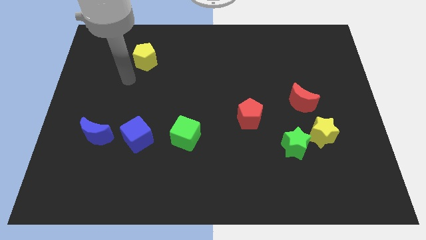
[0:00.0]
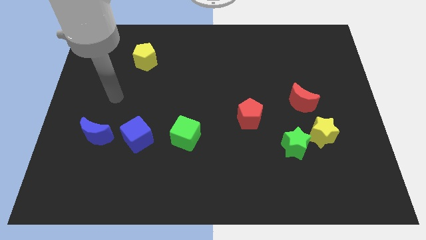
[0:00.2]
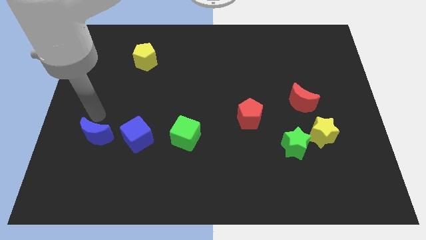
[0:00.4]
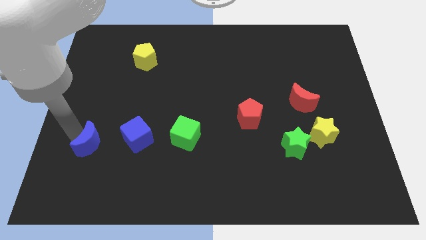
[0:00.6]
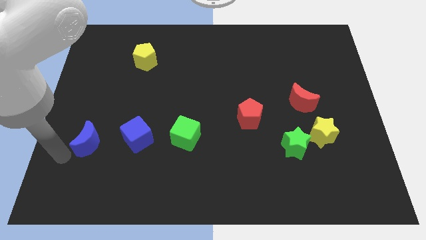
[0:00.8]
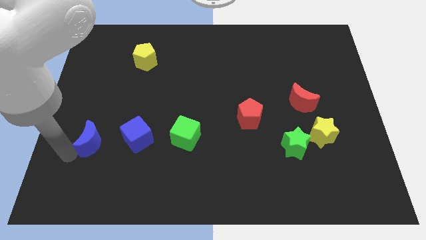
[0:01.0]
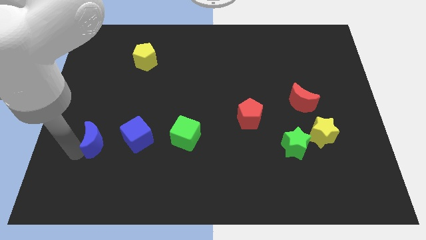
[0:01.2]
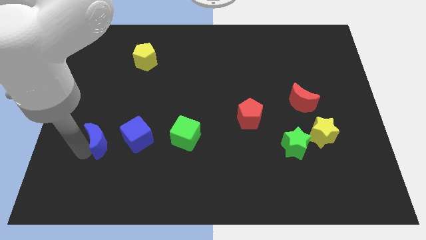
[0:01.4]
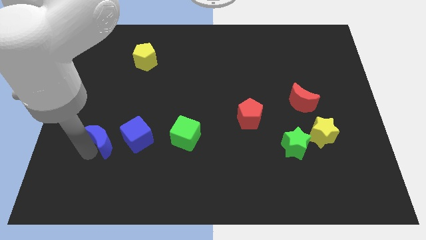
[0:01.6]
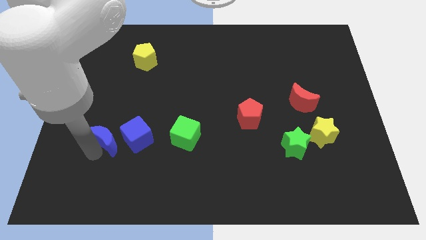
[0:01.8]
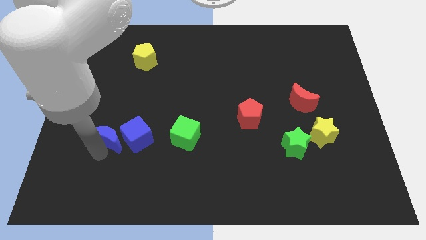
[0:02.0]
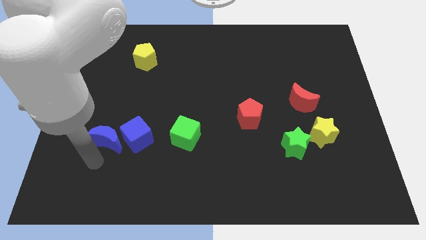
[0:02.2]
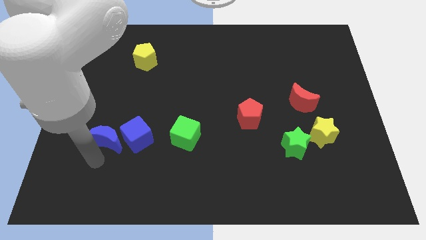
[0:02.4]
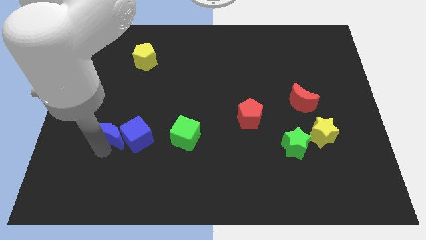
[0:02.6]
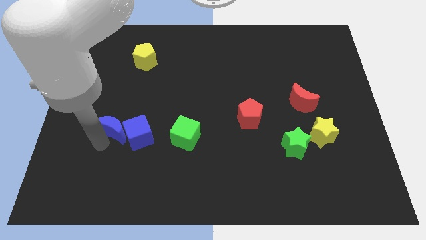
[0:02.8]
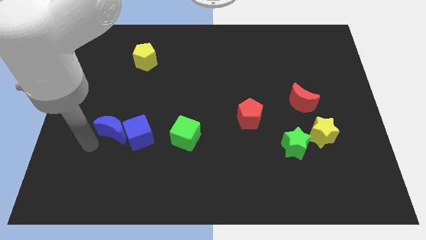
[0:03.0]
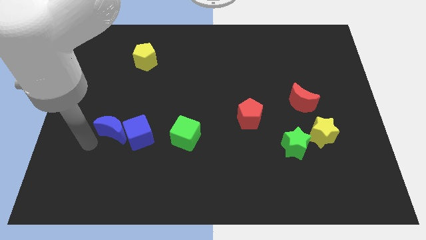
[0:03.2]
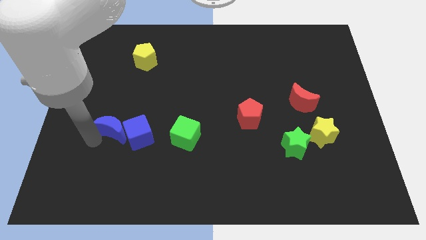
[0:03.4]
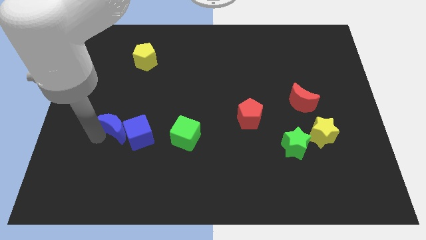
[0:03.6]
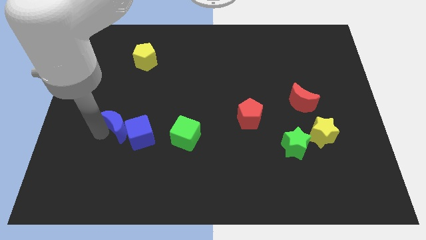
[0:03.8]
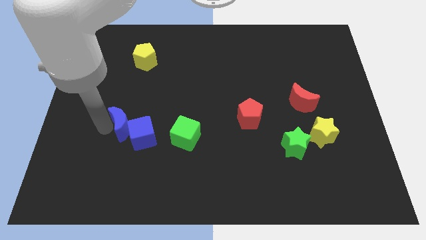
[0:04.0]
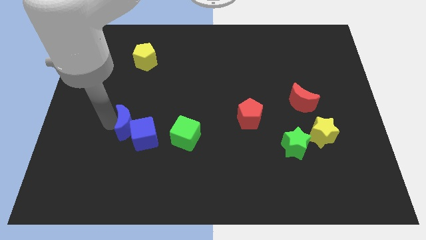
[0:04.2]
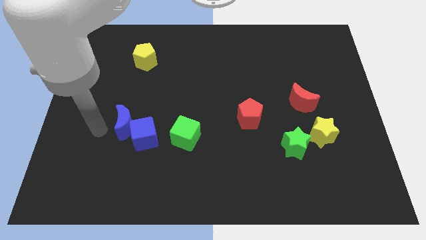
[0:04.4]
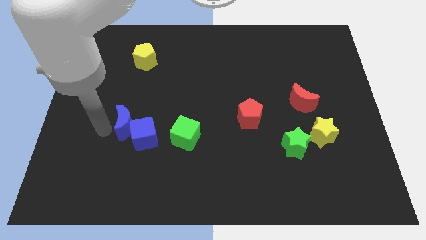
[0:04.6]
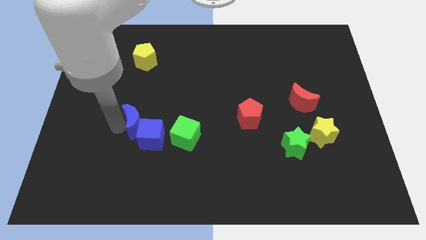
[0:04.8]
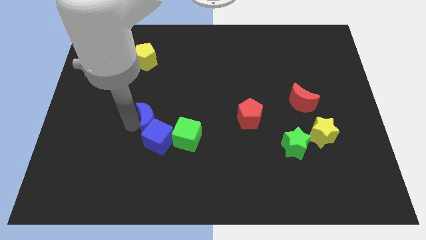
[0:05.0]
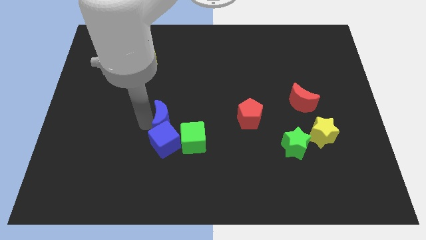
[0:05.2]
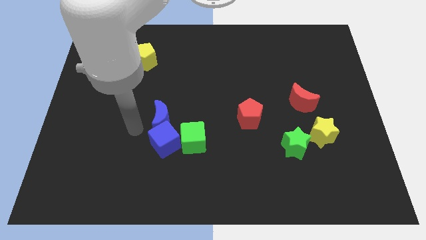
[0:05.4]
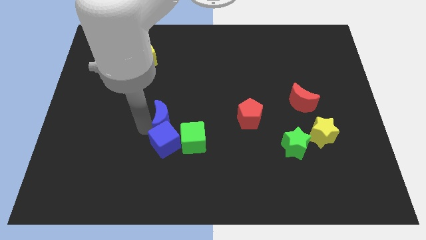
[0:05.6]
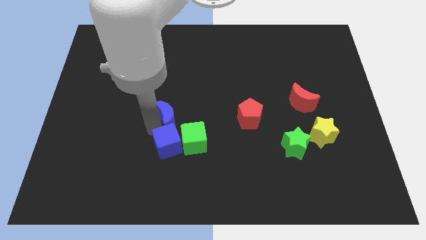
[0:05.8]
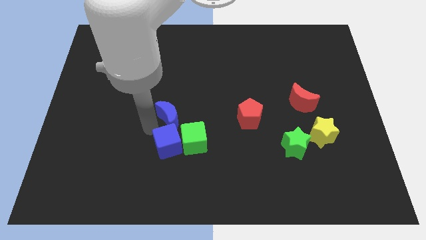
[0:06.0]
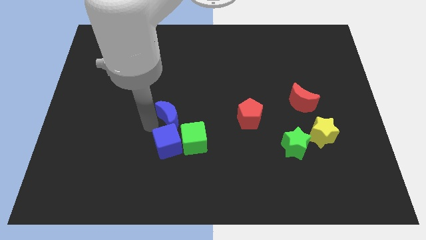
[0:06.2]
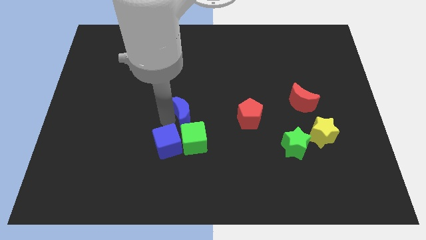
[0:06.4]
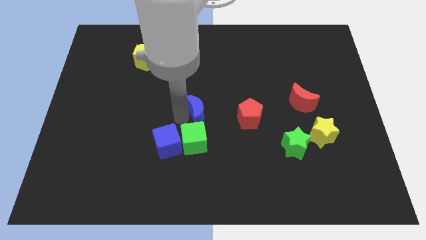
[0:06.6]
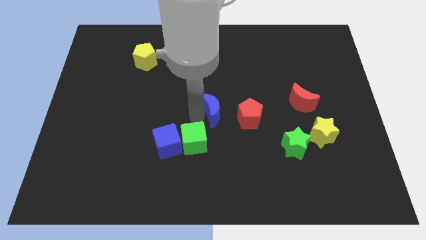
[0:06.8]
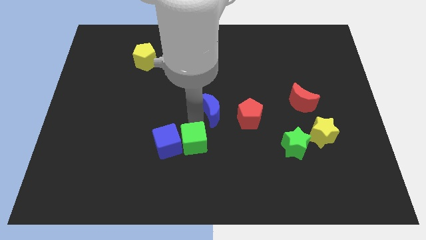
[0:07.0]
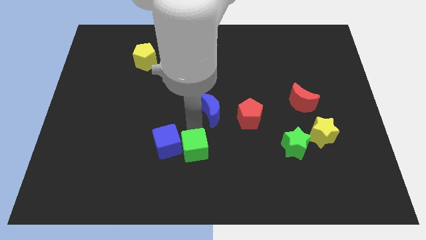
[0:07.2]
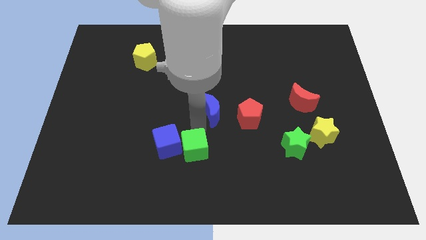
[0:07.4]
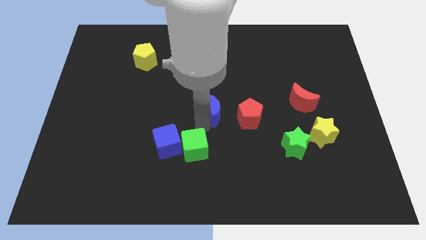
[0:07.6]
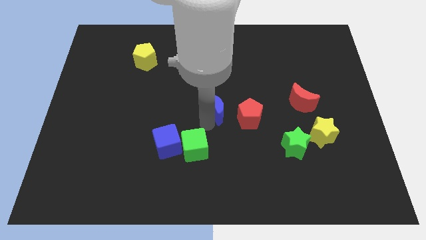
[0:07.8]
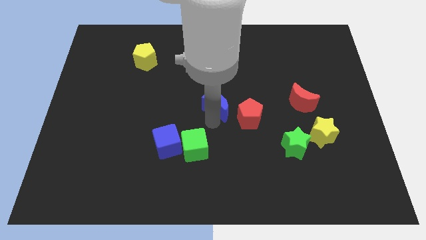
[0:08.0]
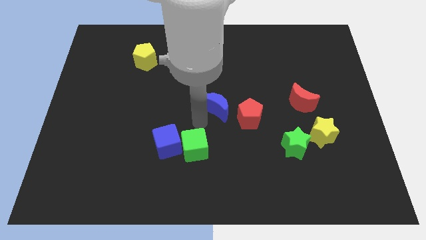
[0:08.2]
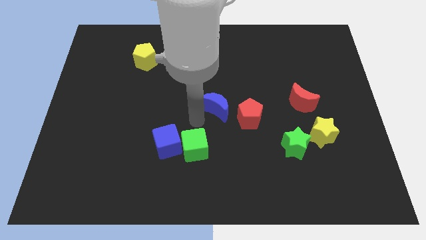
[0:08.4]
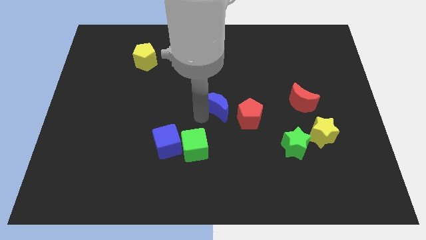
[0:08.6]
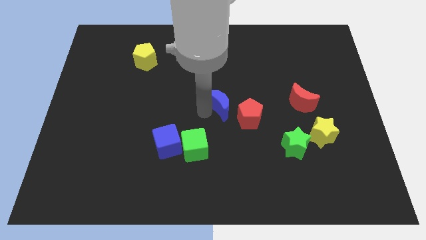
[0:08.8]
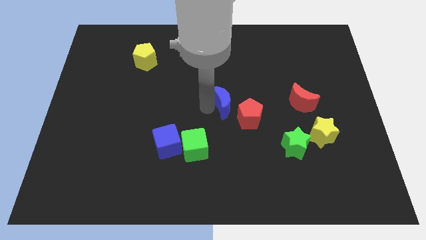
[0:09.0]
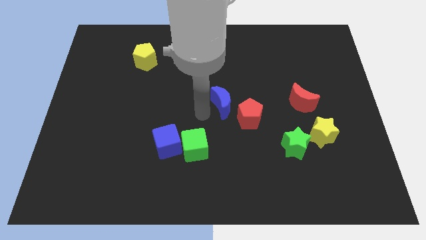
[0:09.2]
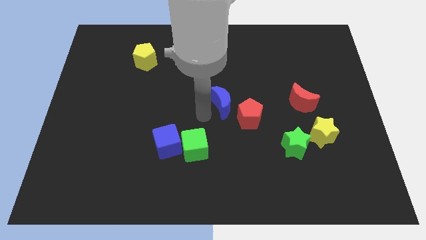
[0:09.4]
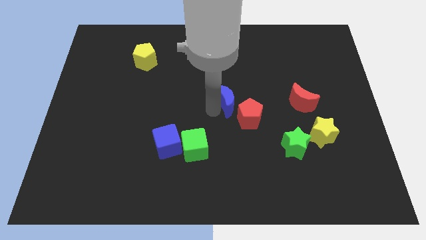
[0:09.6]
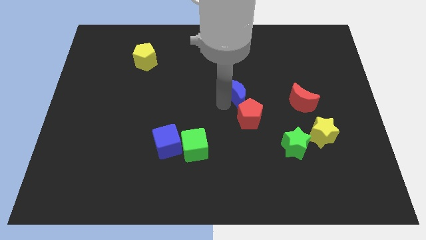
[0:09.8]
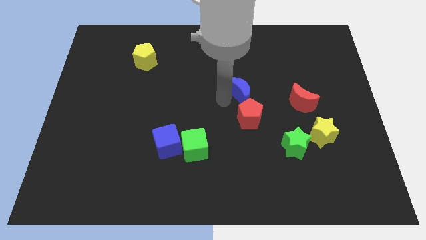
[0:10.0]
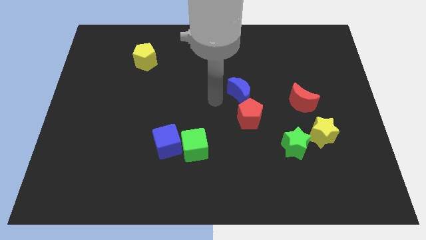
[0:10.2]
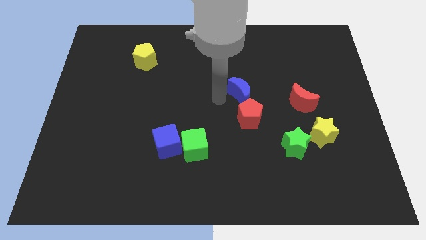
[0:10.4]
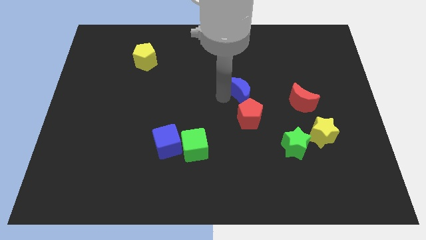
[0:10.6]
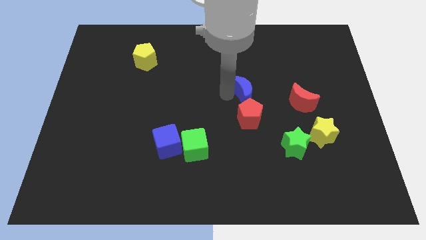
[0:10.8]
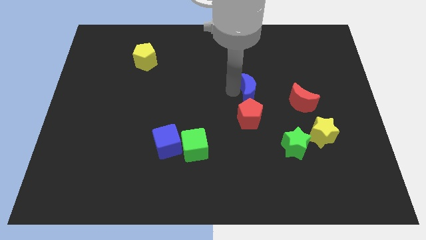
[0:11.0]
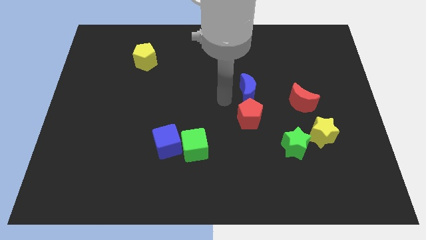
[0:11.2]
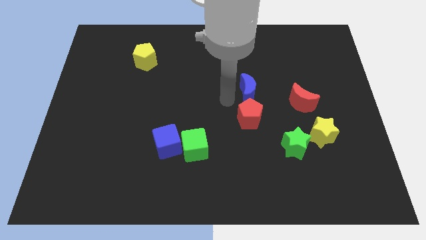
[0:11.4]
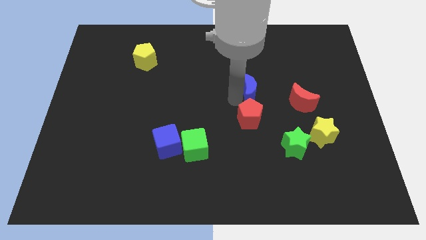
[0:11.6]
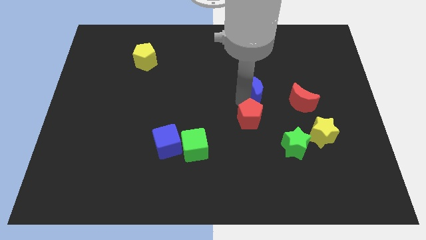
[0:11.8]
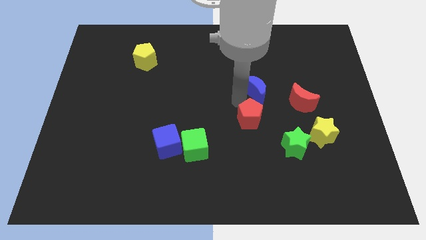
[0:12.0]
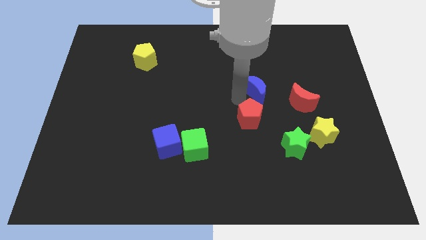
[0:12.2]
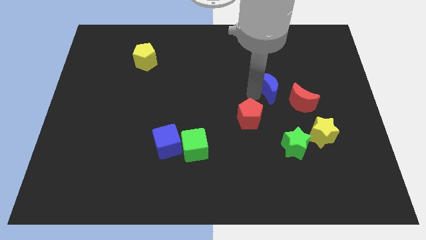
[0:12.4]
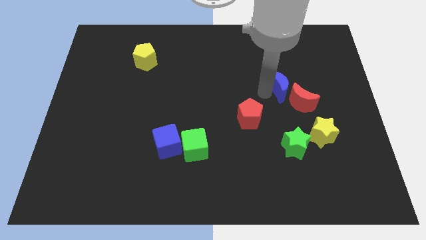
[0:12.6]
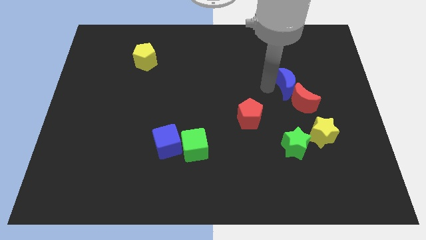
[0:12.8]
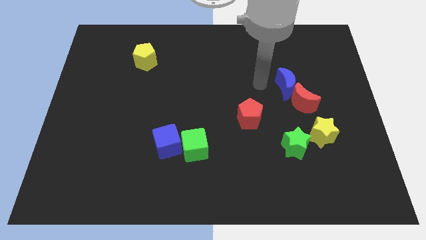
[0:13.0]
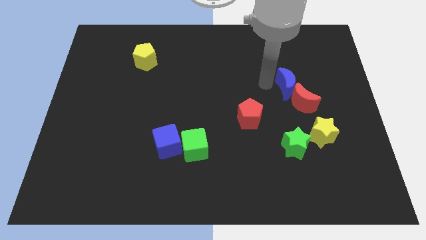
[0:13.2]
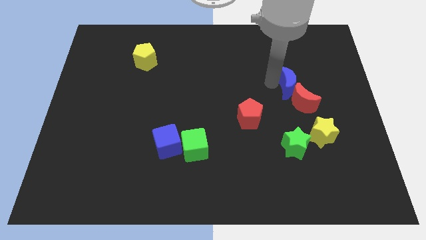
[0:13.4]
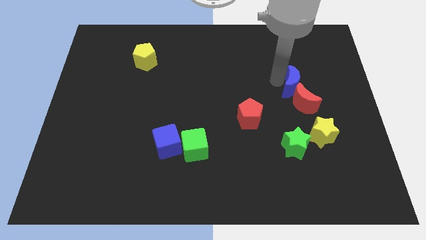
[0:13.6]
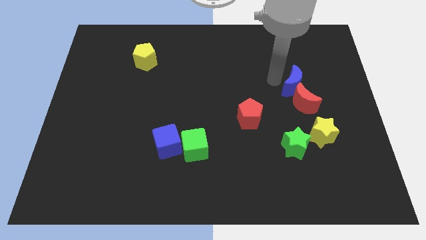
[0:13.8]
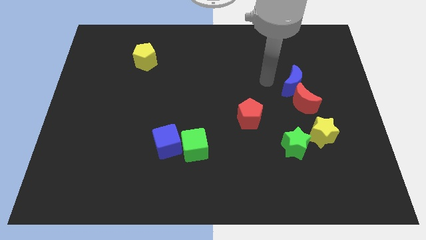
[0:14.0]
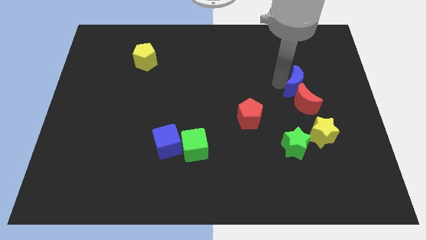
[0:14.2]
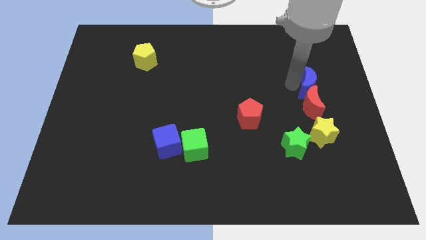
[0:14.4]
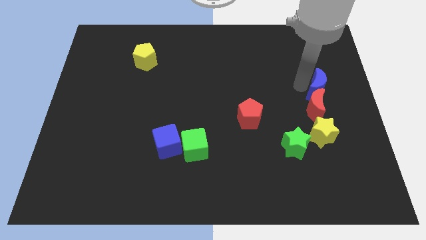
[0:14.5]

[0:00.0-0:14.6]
put the blue moon to the right side
